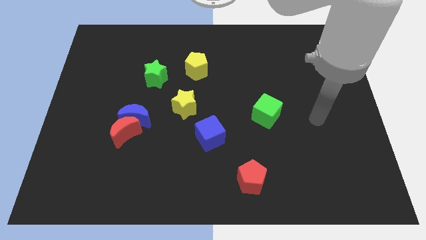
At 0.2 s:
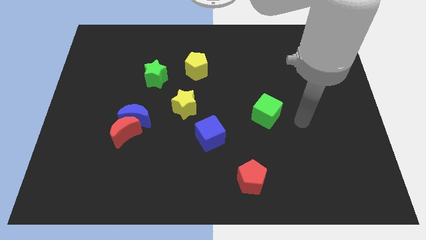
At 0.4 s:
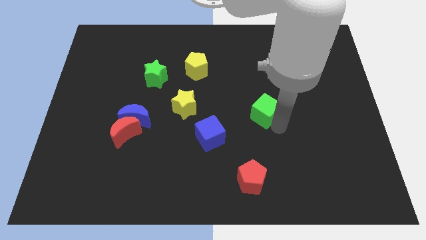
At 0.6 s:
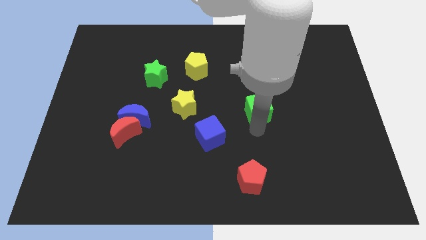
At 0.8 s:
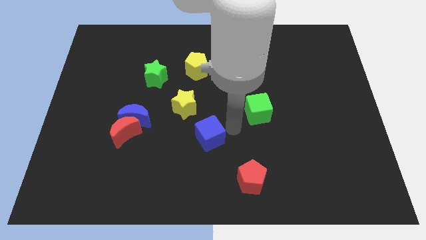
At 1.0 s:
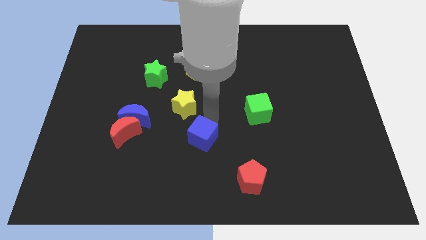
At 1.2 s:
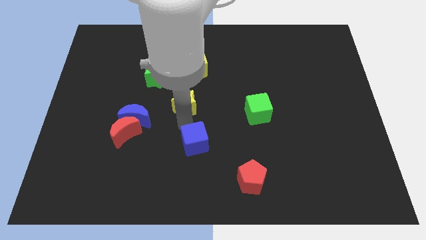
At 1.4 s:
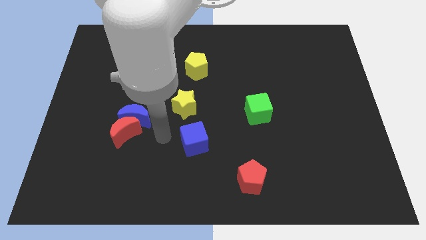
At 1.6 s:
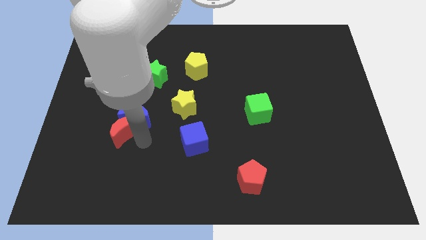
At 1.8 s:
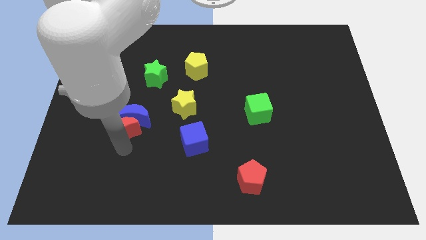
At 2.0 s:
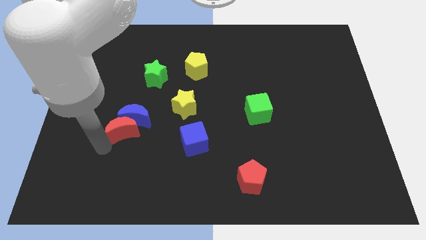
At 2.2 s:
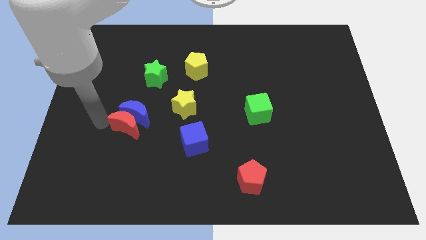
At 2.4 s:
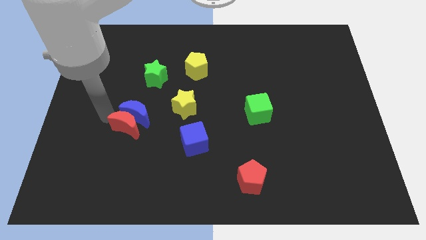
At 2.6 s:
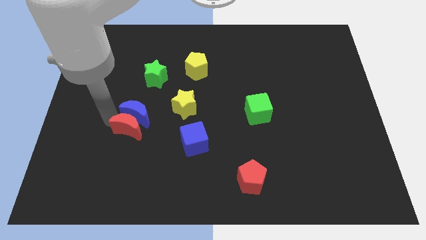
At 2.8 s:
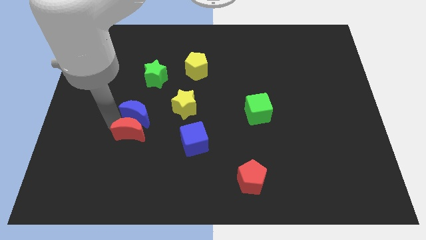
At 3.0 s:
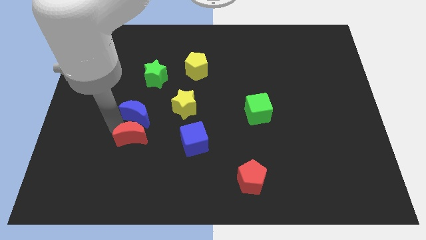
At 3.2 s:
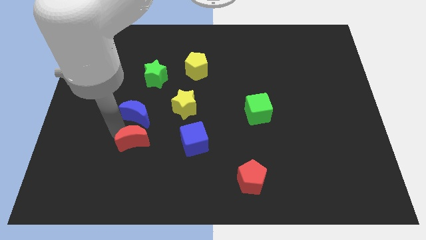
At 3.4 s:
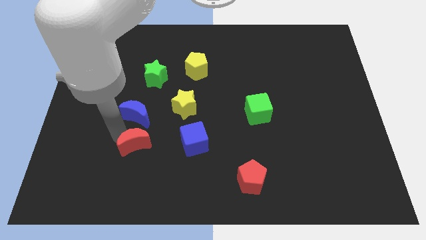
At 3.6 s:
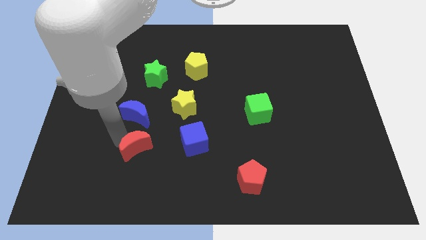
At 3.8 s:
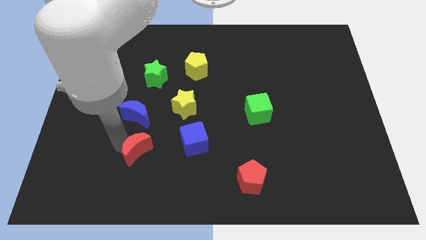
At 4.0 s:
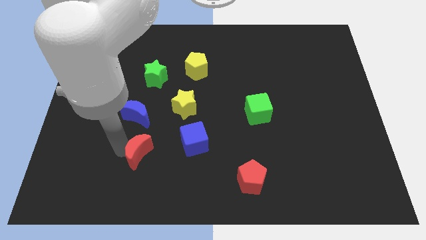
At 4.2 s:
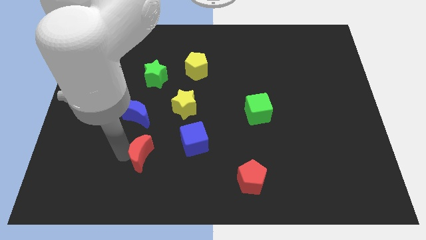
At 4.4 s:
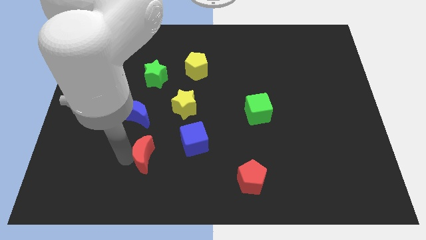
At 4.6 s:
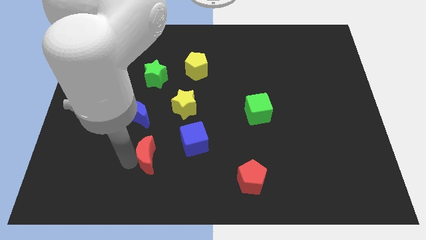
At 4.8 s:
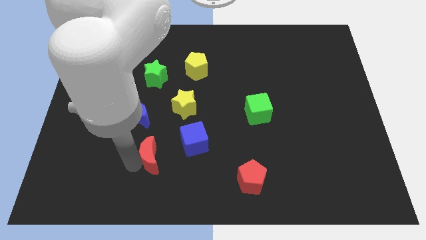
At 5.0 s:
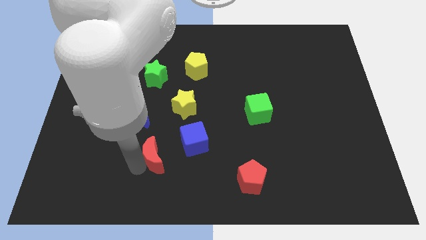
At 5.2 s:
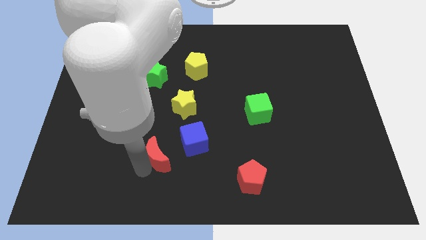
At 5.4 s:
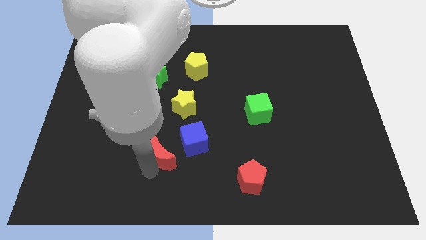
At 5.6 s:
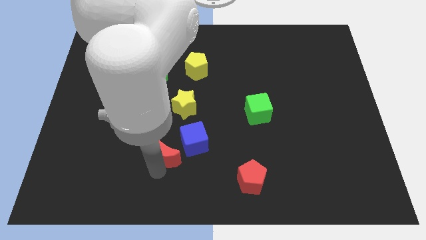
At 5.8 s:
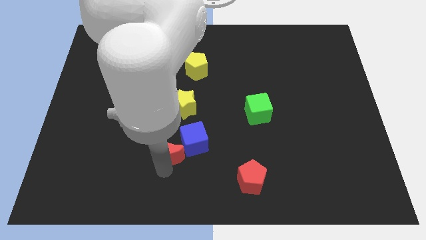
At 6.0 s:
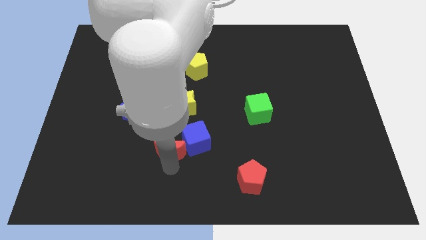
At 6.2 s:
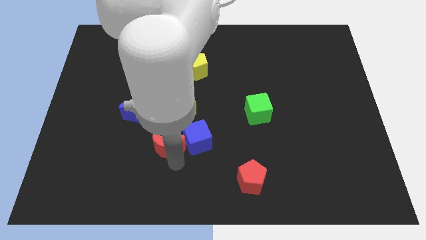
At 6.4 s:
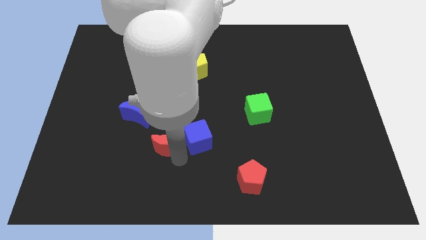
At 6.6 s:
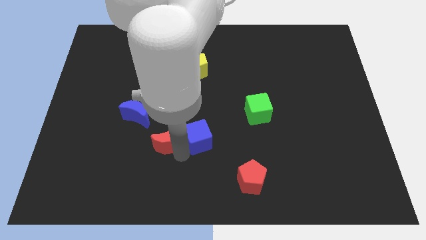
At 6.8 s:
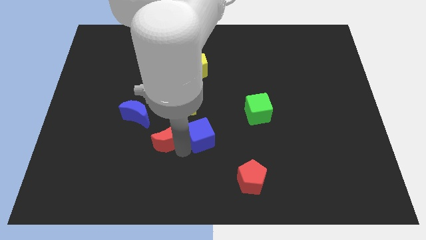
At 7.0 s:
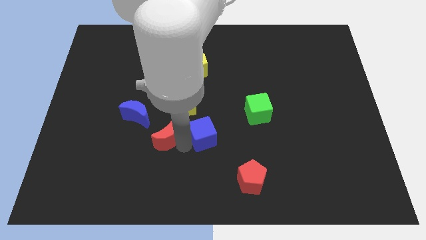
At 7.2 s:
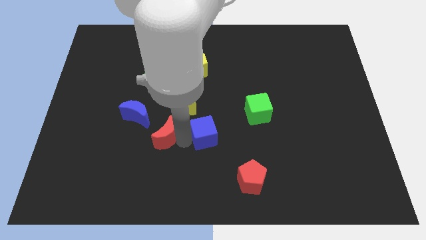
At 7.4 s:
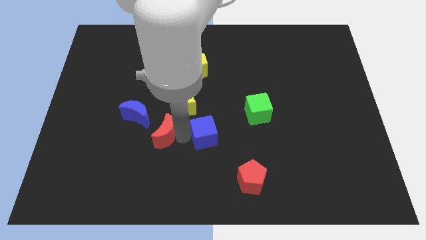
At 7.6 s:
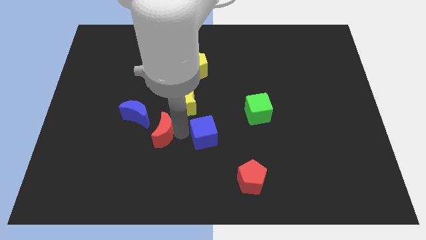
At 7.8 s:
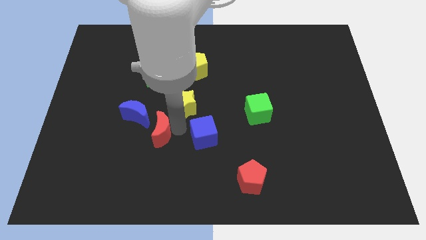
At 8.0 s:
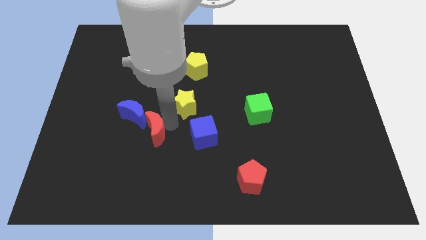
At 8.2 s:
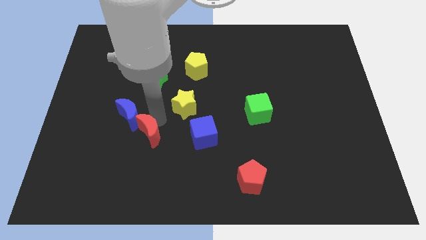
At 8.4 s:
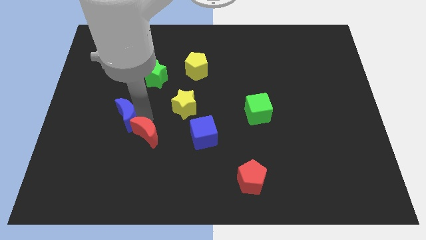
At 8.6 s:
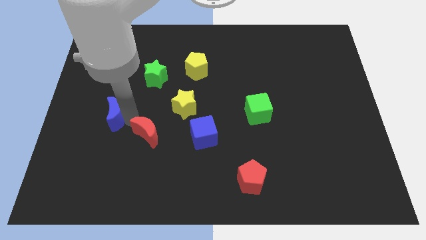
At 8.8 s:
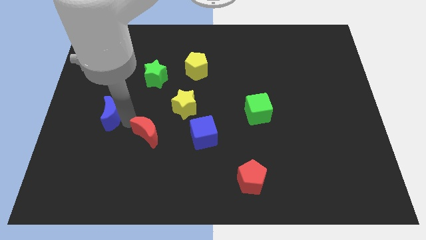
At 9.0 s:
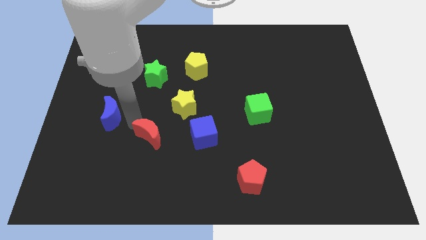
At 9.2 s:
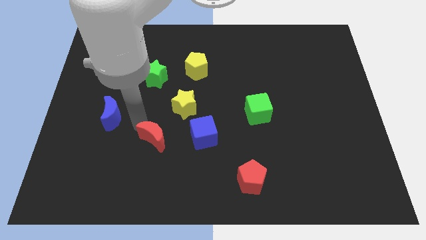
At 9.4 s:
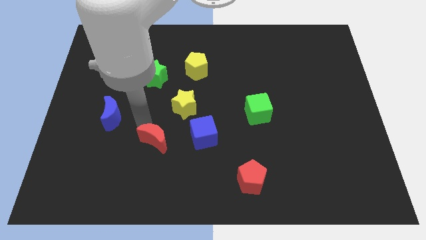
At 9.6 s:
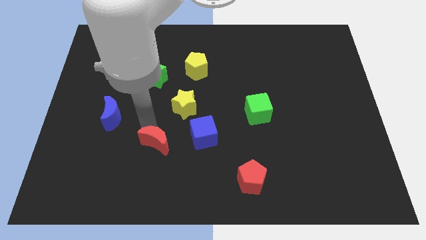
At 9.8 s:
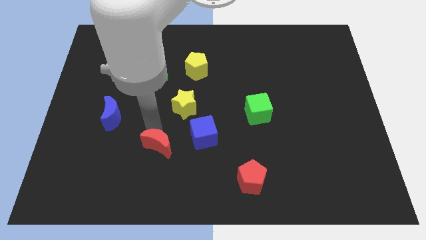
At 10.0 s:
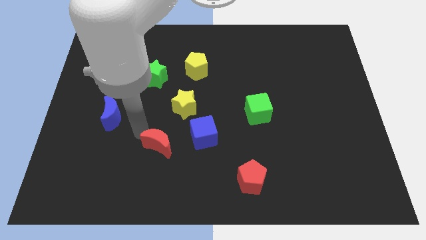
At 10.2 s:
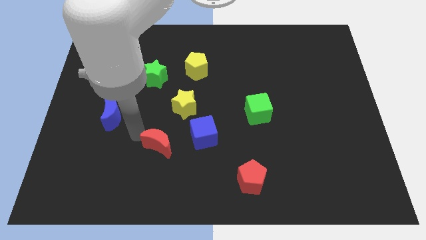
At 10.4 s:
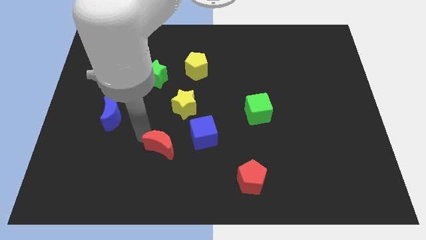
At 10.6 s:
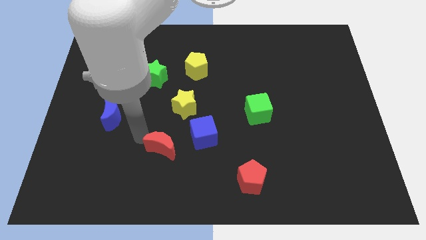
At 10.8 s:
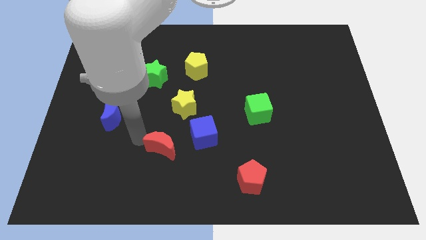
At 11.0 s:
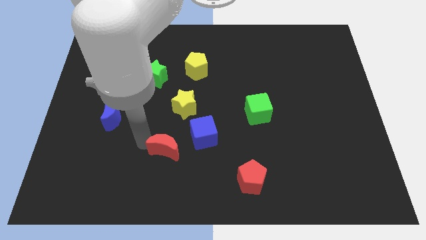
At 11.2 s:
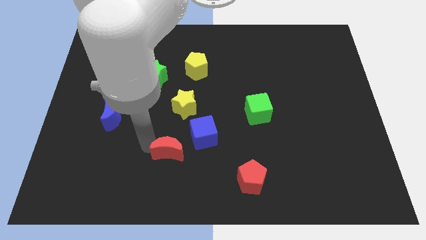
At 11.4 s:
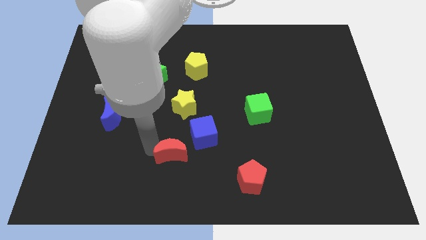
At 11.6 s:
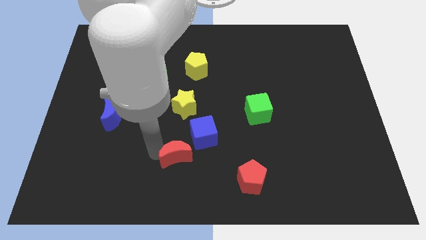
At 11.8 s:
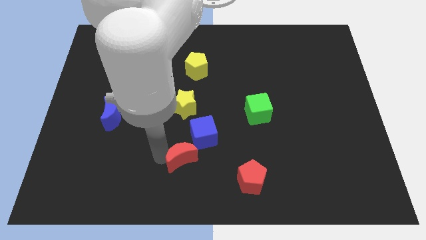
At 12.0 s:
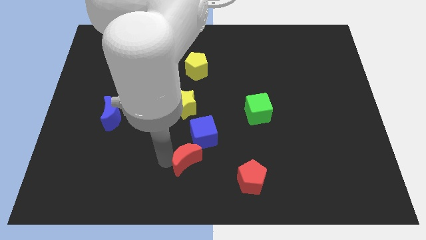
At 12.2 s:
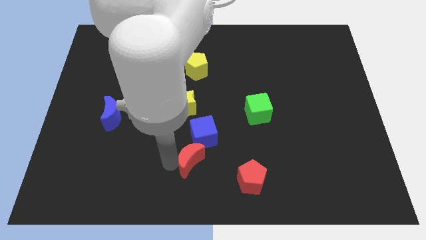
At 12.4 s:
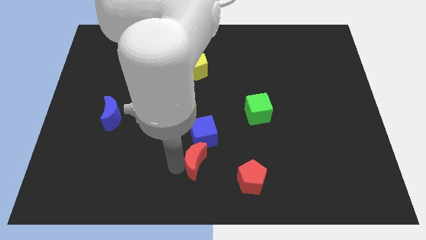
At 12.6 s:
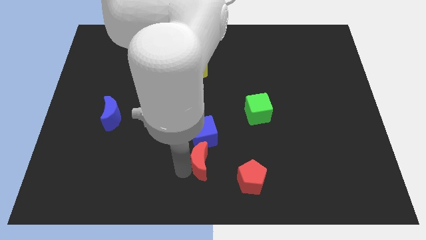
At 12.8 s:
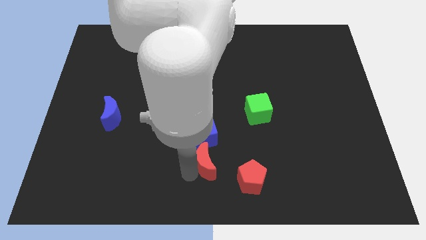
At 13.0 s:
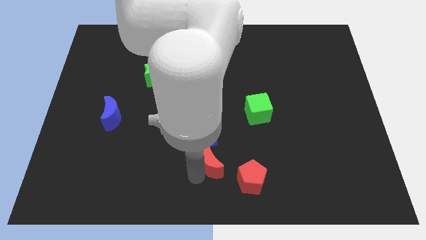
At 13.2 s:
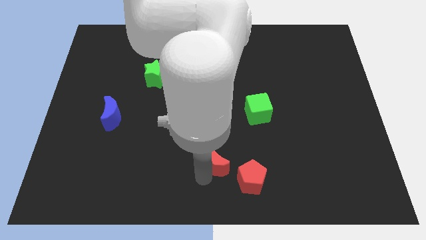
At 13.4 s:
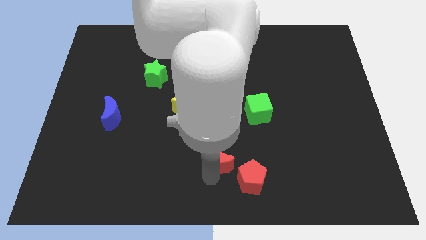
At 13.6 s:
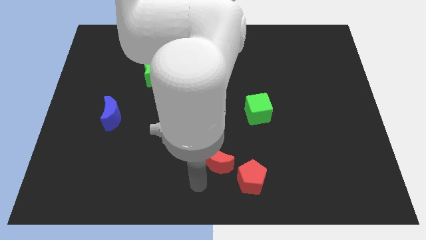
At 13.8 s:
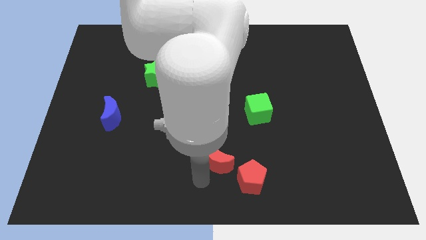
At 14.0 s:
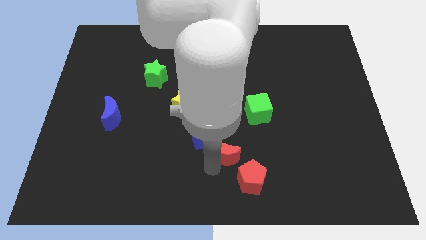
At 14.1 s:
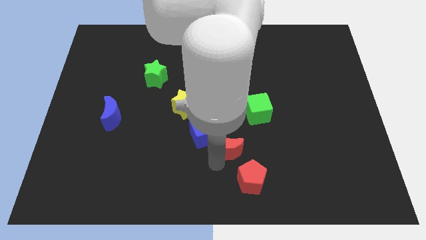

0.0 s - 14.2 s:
push the red moon to the top of the red pentagon

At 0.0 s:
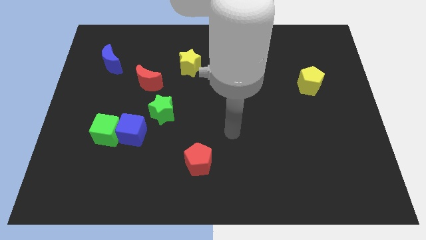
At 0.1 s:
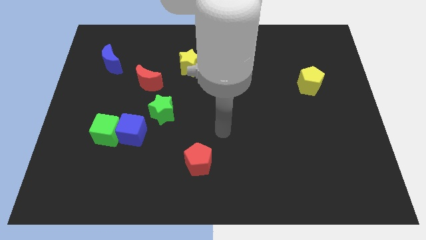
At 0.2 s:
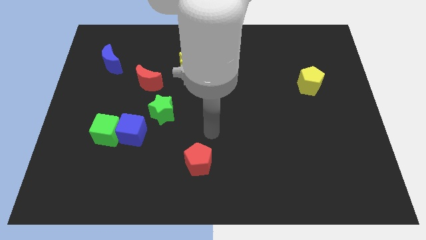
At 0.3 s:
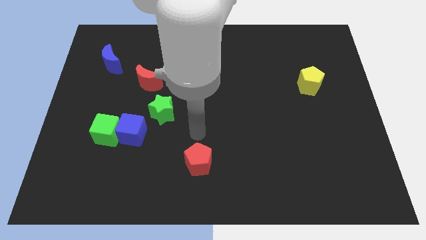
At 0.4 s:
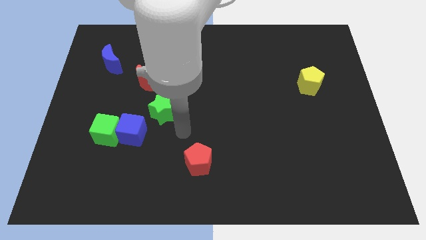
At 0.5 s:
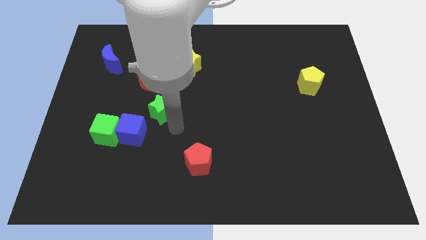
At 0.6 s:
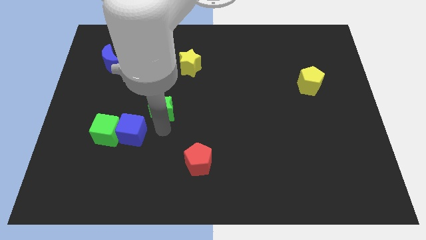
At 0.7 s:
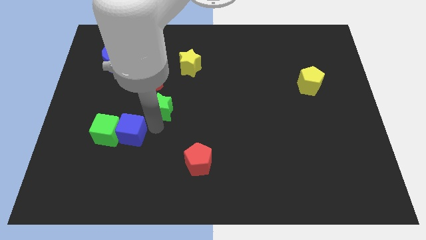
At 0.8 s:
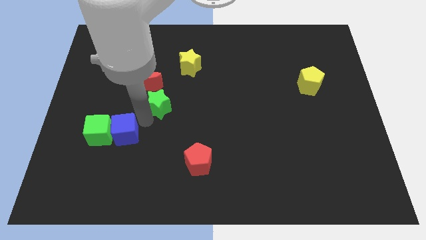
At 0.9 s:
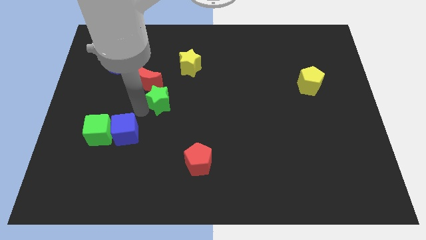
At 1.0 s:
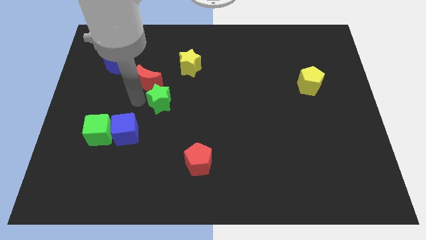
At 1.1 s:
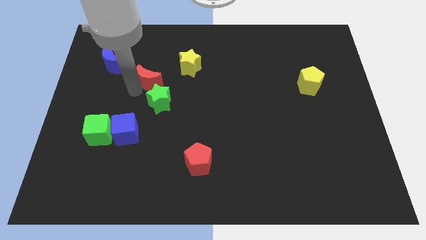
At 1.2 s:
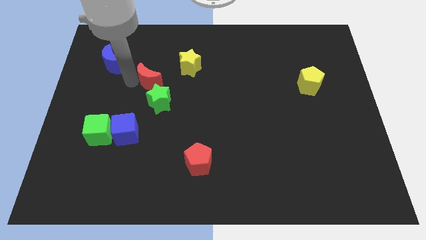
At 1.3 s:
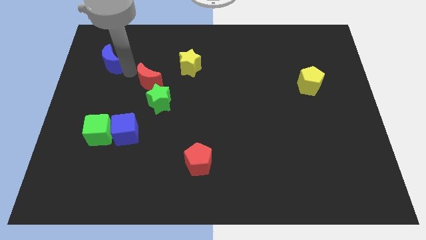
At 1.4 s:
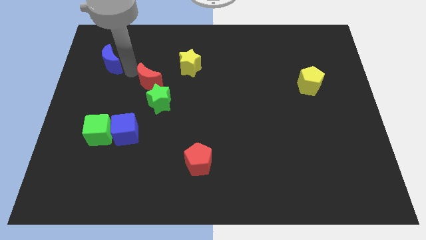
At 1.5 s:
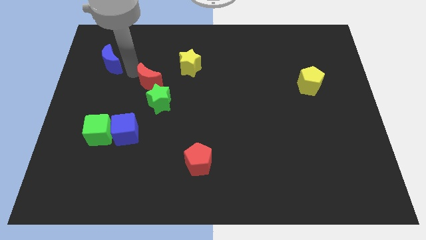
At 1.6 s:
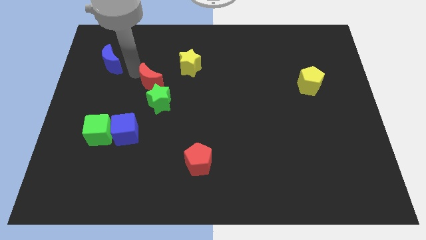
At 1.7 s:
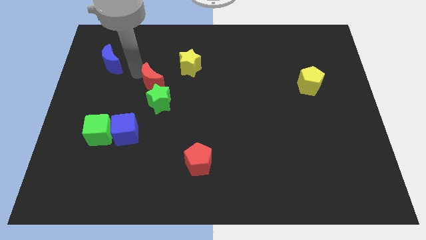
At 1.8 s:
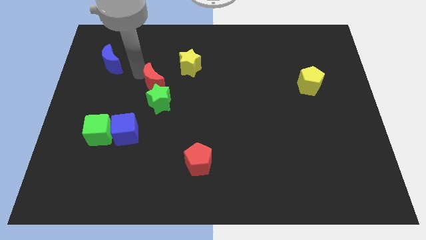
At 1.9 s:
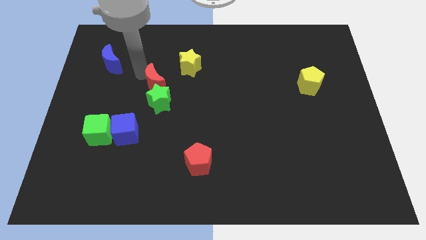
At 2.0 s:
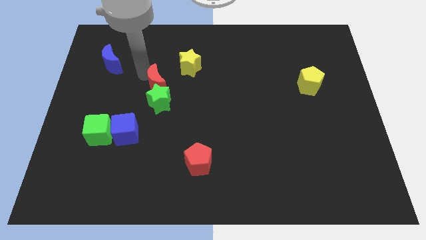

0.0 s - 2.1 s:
put the red moon to the top right of the green star
